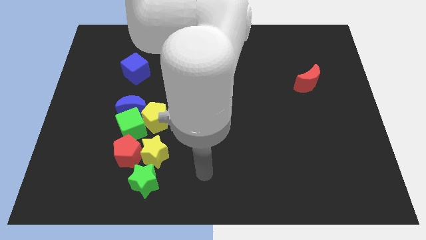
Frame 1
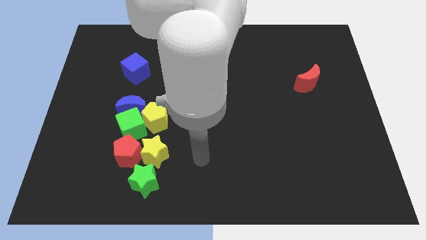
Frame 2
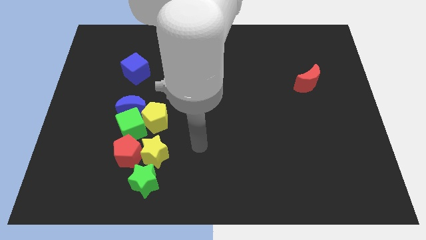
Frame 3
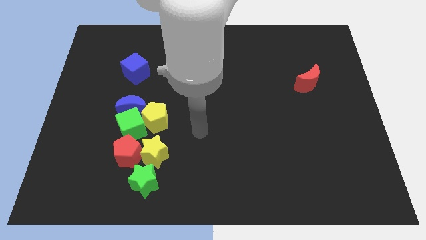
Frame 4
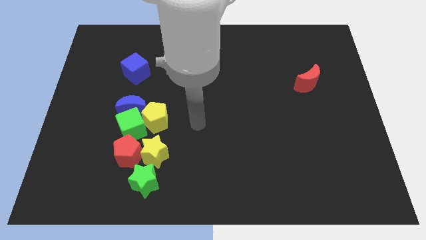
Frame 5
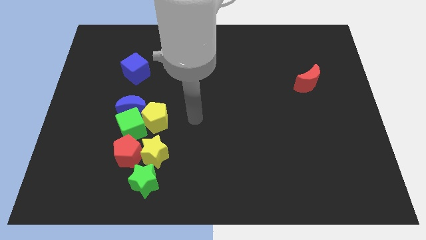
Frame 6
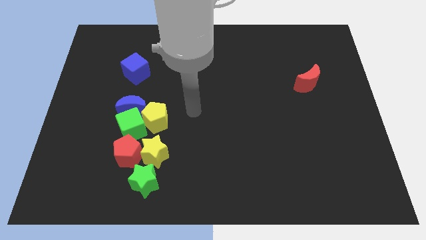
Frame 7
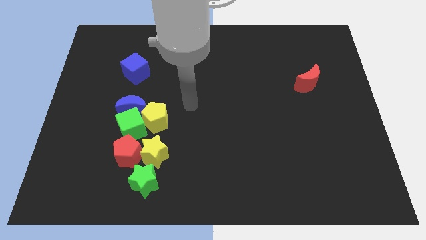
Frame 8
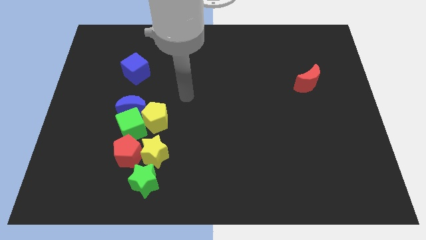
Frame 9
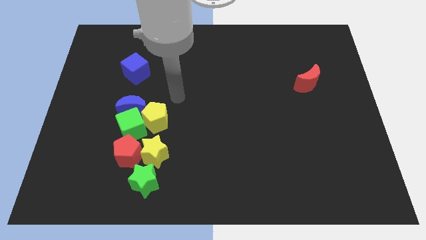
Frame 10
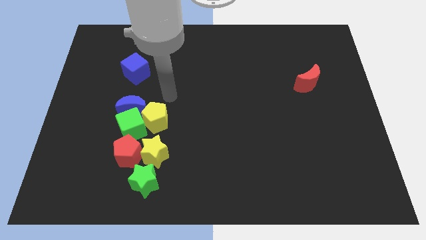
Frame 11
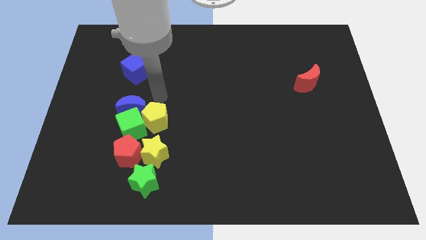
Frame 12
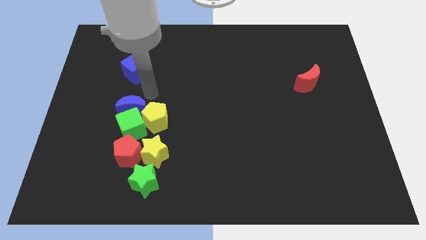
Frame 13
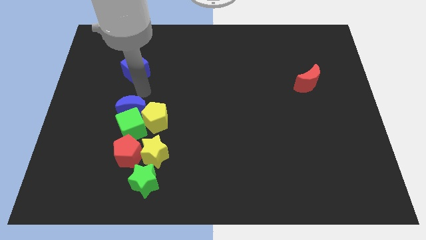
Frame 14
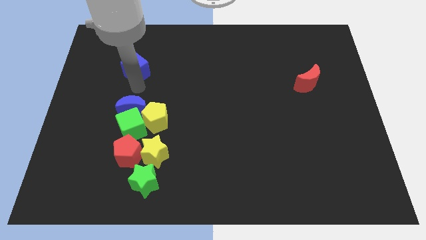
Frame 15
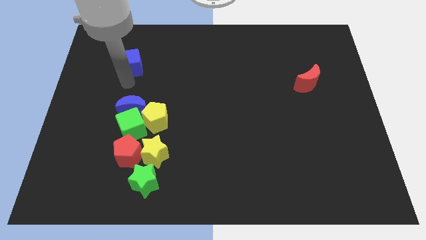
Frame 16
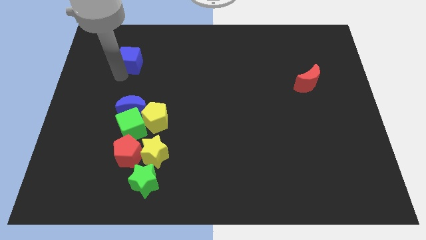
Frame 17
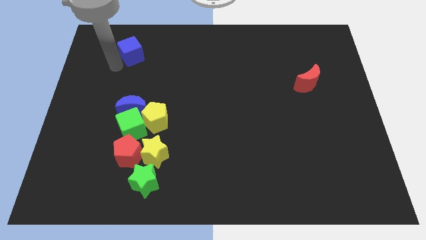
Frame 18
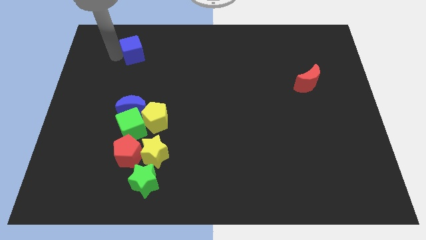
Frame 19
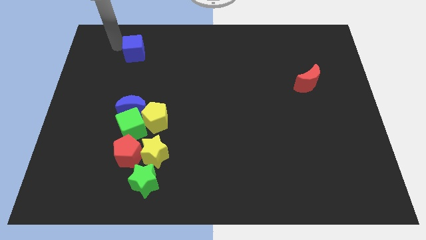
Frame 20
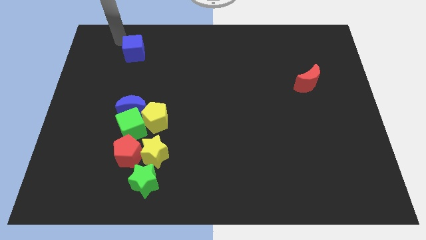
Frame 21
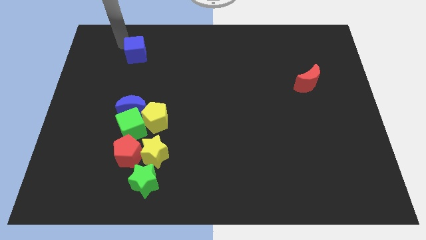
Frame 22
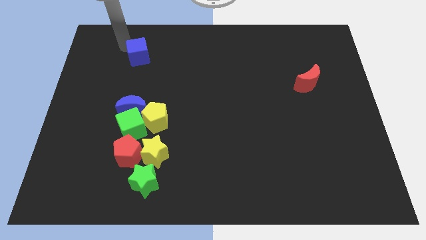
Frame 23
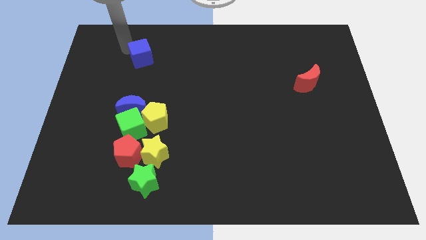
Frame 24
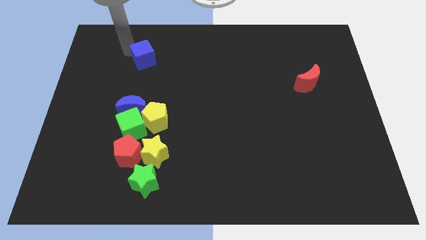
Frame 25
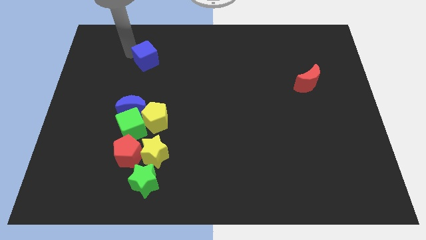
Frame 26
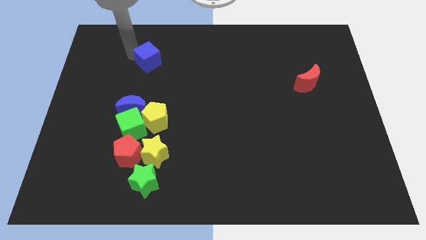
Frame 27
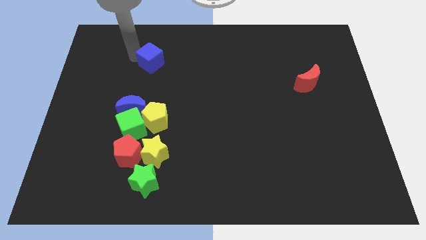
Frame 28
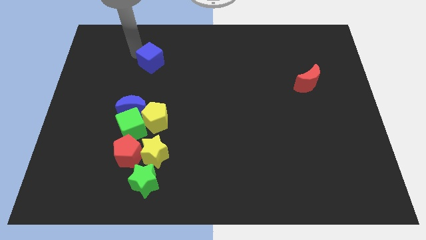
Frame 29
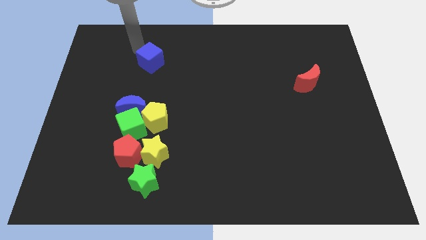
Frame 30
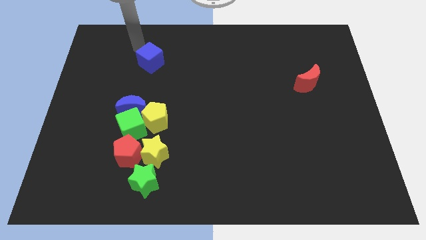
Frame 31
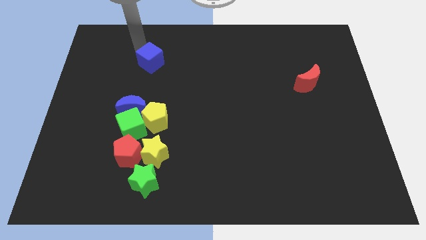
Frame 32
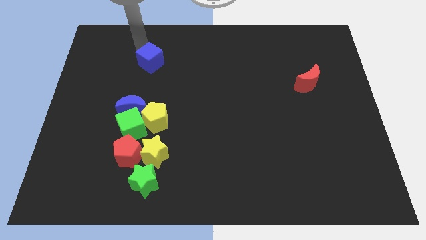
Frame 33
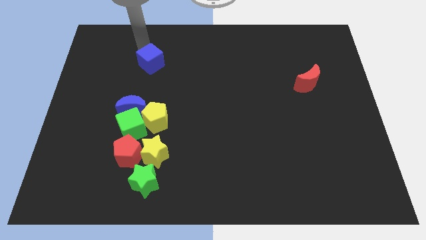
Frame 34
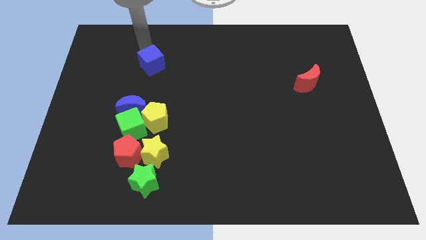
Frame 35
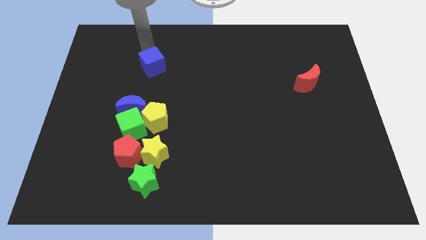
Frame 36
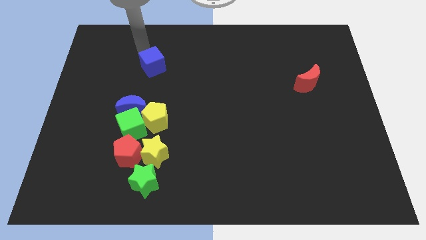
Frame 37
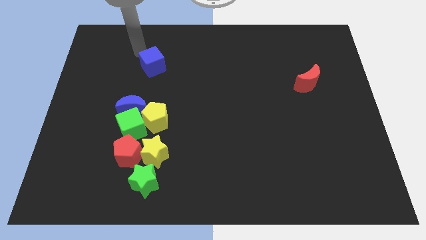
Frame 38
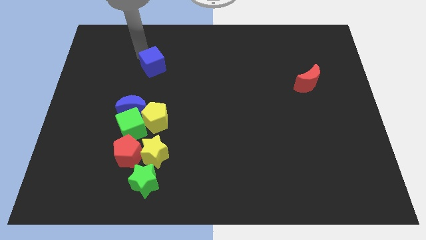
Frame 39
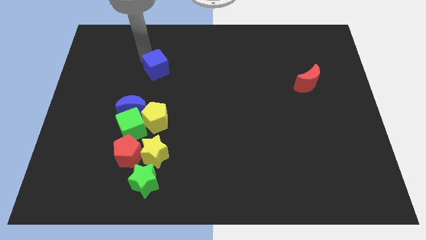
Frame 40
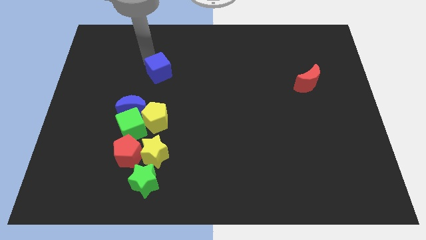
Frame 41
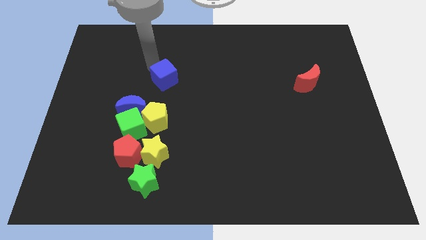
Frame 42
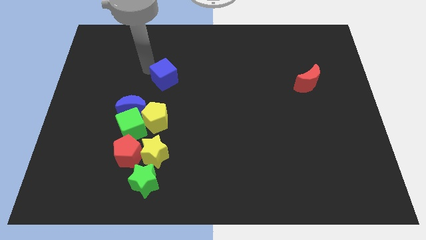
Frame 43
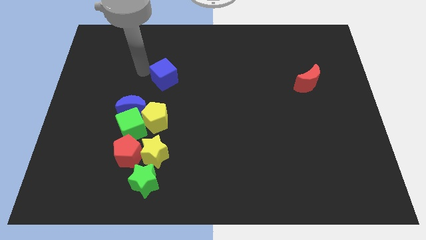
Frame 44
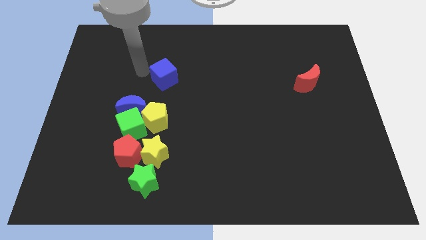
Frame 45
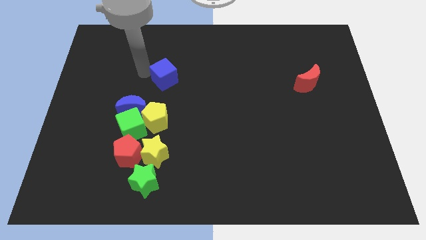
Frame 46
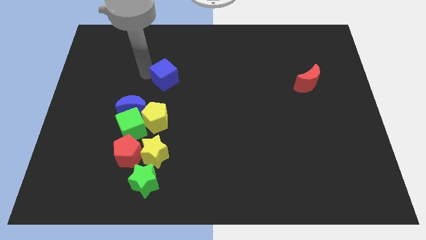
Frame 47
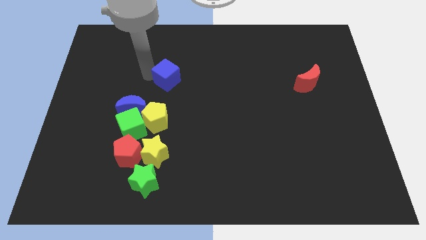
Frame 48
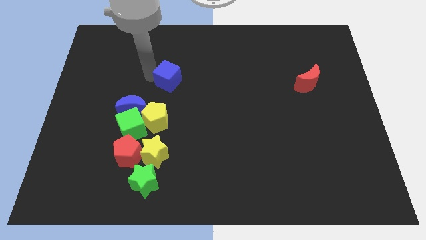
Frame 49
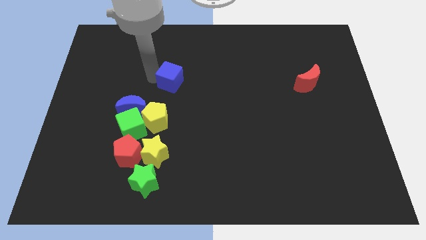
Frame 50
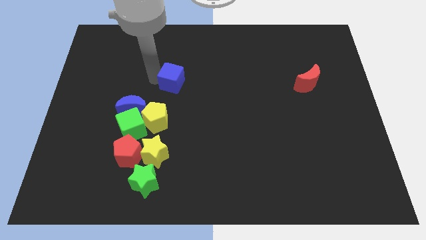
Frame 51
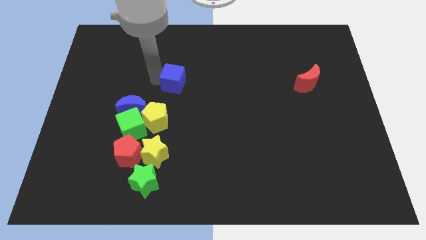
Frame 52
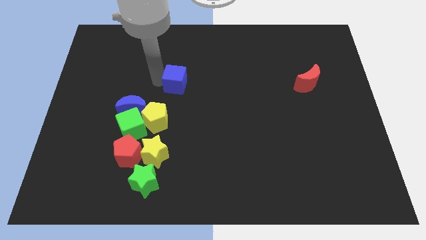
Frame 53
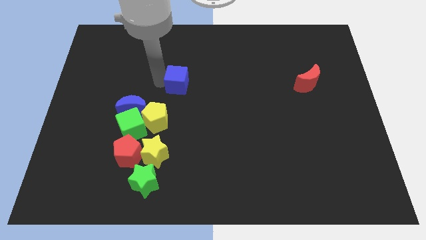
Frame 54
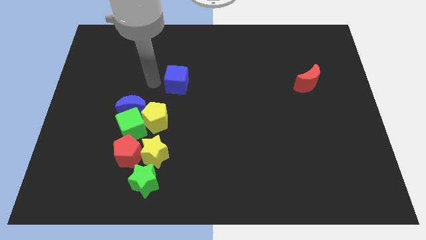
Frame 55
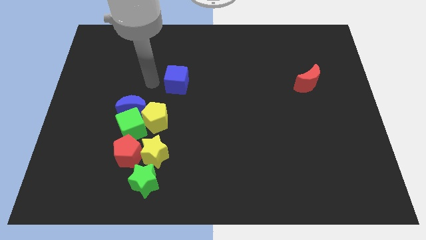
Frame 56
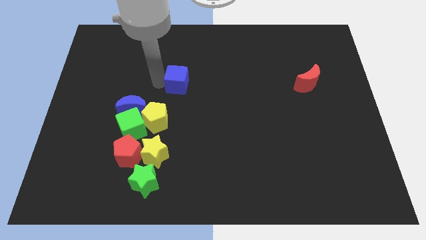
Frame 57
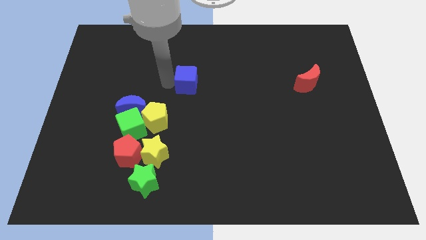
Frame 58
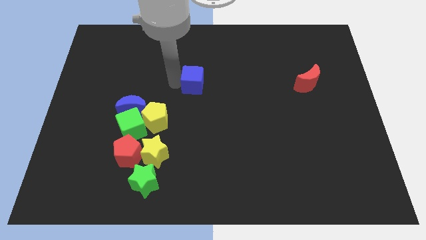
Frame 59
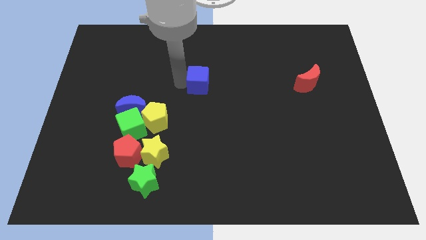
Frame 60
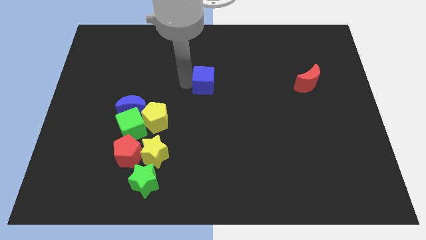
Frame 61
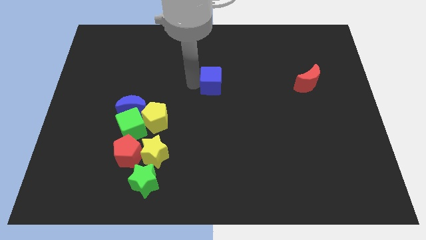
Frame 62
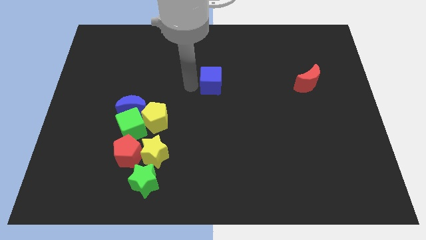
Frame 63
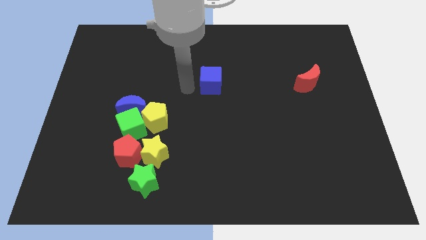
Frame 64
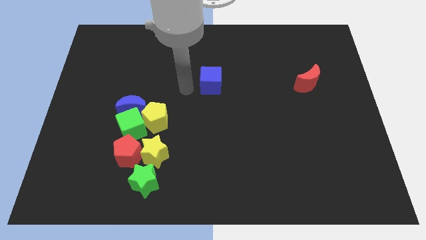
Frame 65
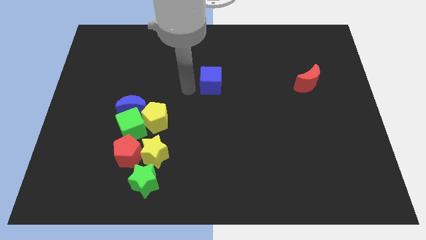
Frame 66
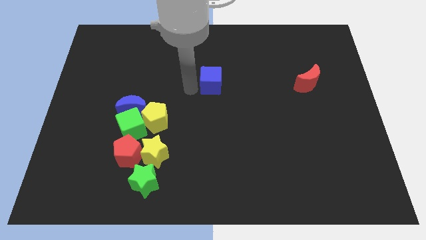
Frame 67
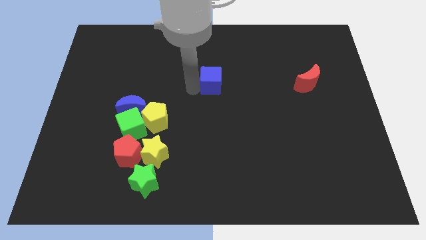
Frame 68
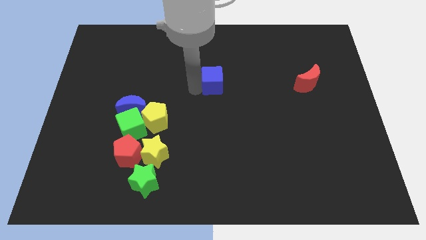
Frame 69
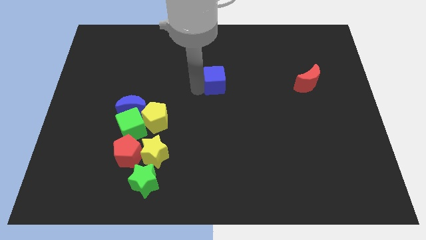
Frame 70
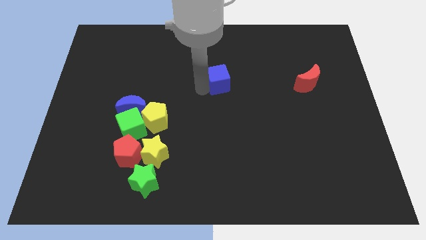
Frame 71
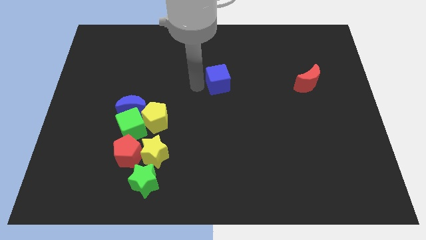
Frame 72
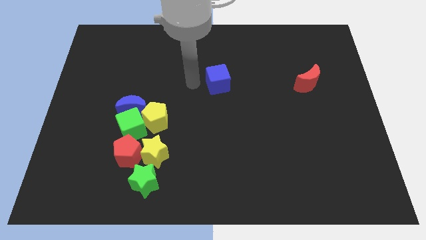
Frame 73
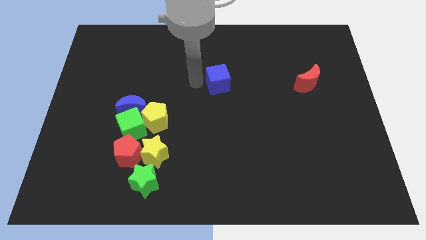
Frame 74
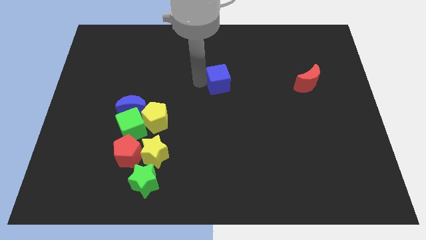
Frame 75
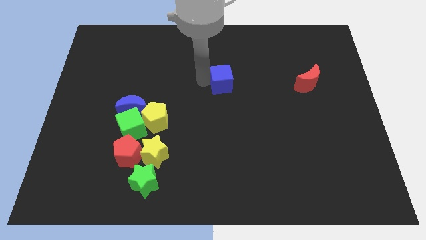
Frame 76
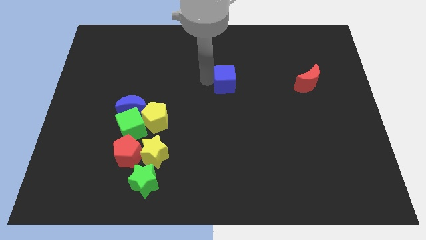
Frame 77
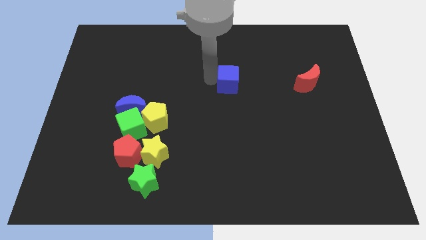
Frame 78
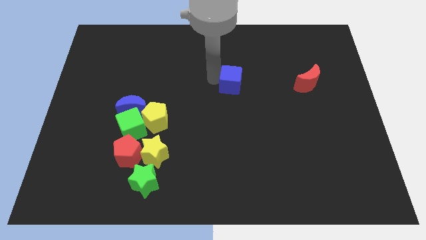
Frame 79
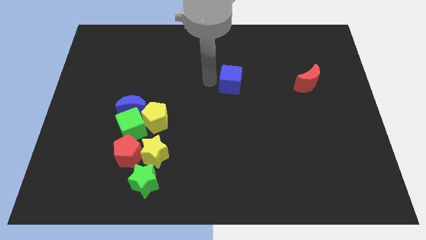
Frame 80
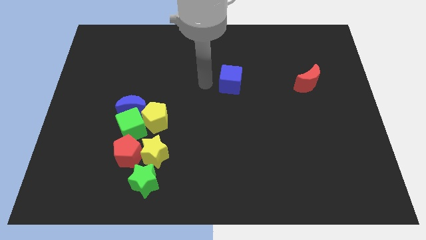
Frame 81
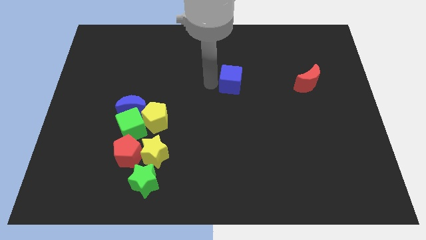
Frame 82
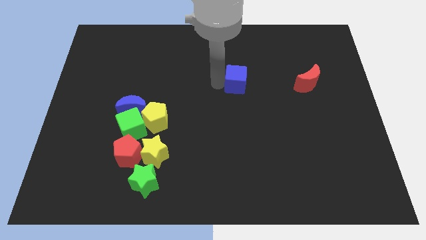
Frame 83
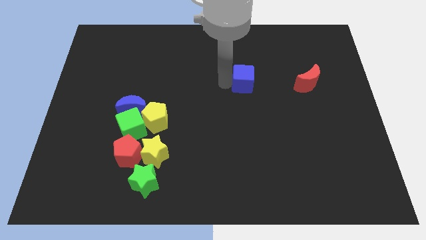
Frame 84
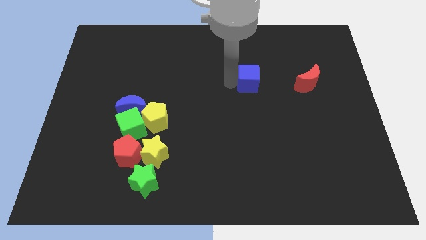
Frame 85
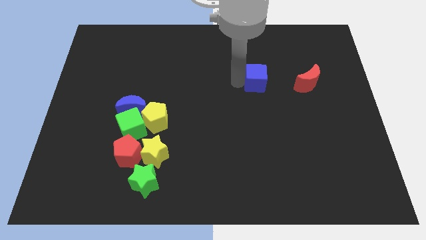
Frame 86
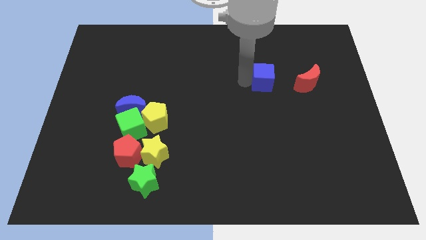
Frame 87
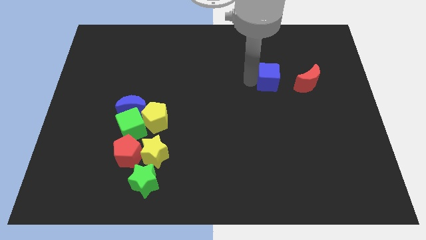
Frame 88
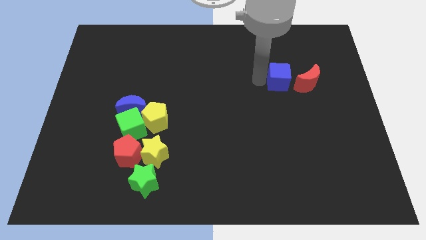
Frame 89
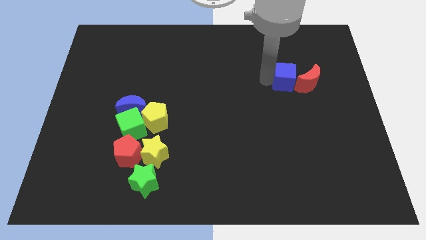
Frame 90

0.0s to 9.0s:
put the blue cube close to the red moon
